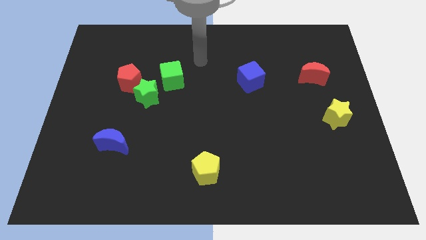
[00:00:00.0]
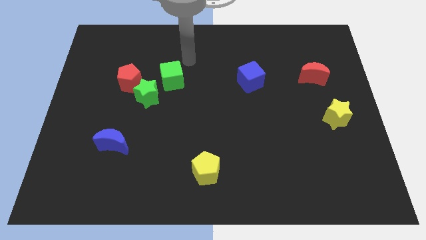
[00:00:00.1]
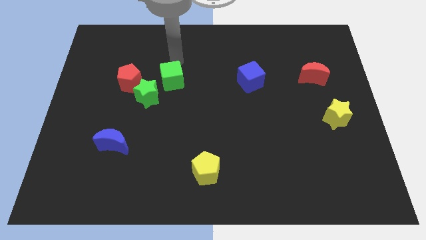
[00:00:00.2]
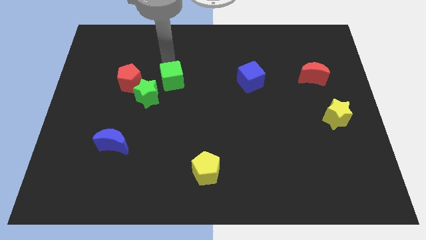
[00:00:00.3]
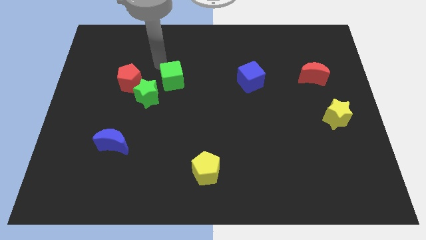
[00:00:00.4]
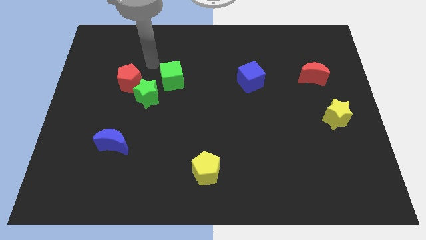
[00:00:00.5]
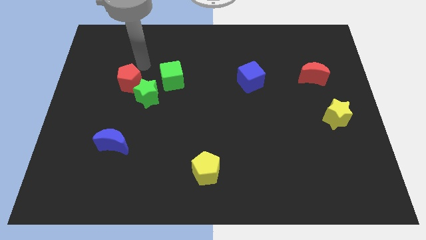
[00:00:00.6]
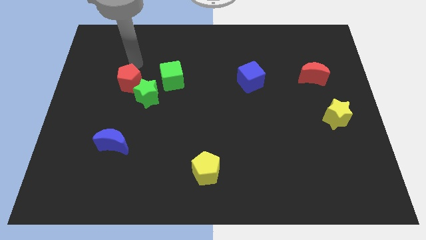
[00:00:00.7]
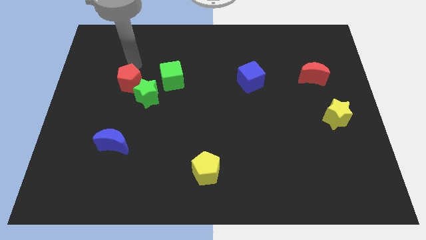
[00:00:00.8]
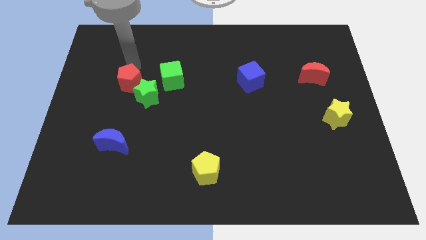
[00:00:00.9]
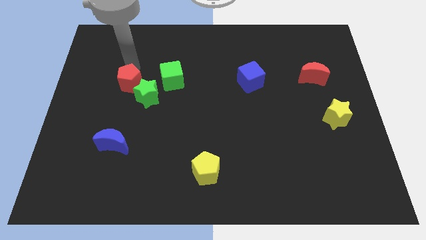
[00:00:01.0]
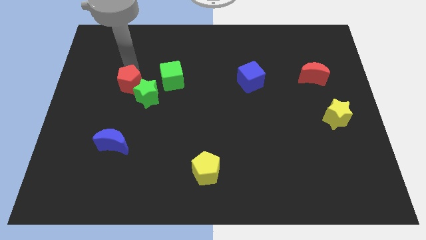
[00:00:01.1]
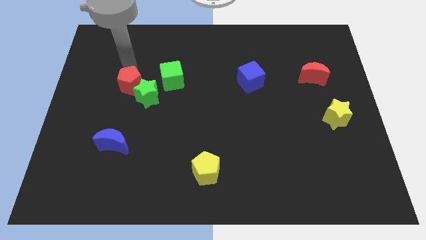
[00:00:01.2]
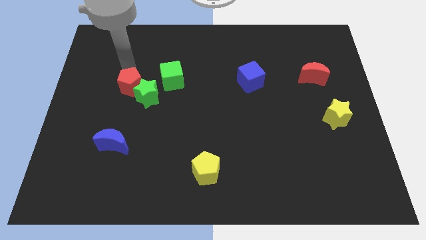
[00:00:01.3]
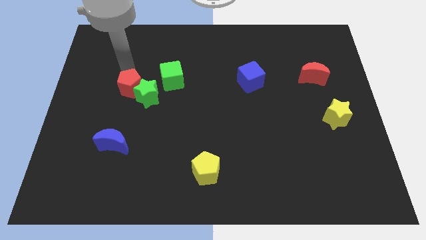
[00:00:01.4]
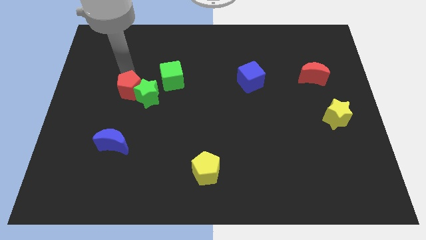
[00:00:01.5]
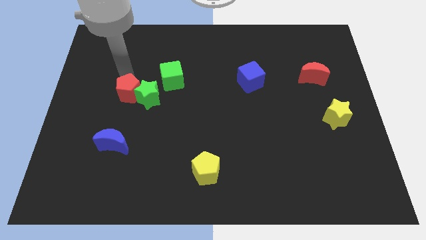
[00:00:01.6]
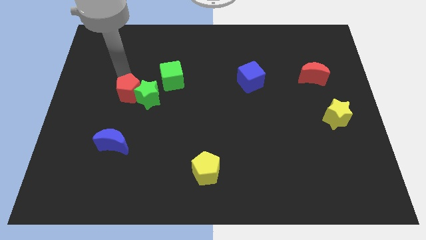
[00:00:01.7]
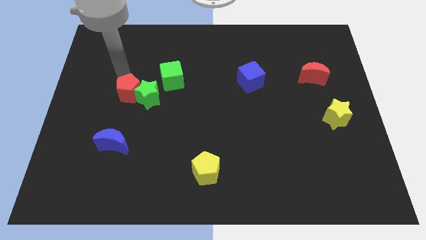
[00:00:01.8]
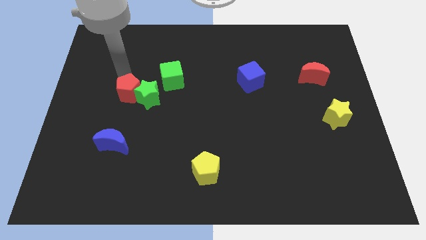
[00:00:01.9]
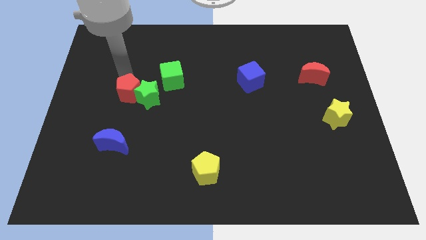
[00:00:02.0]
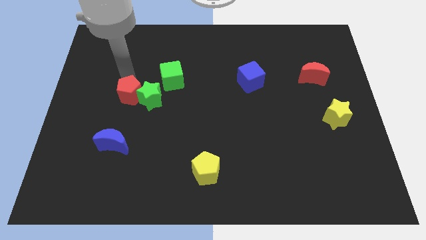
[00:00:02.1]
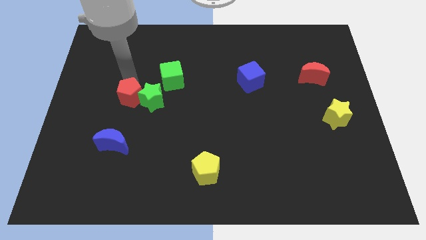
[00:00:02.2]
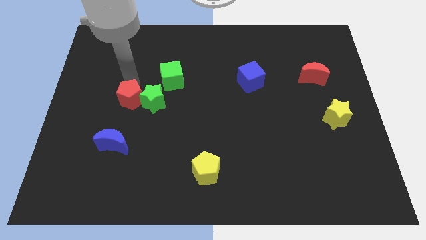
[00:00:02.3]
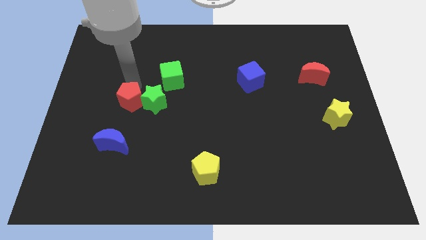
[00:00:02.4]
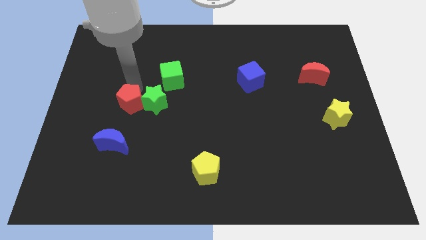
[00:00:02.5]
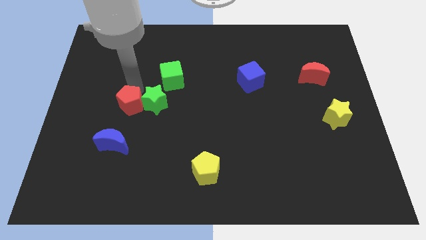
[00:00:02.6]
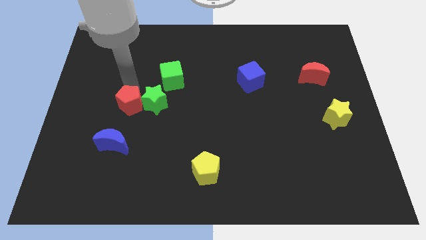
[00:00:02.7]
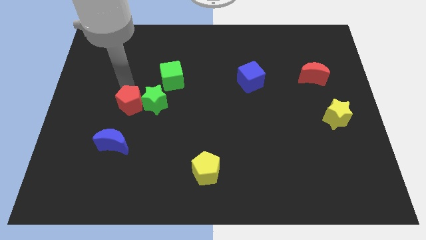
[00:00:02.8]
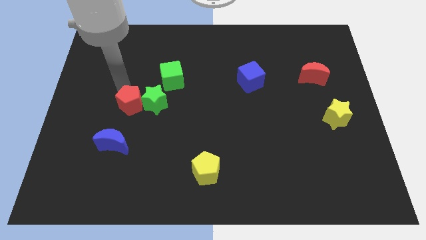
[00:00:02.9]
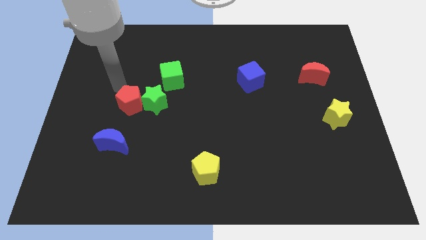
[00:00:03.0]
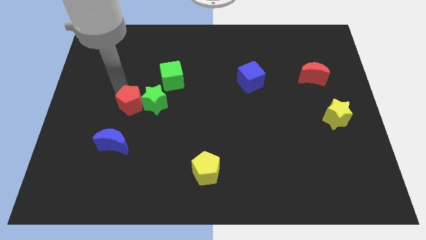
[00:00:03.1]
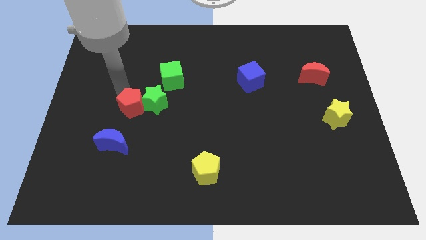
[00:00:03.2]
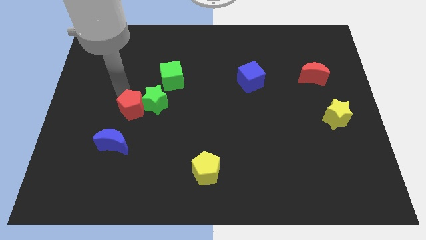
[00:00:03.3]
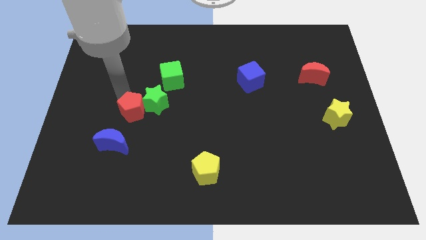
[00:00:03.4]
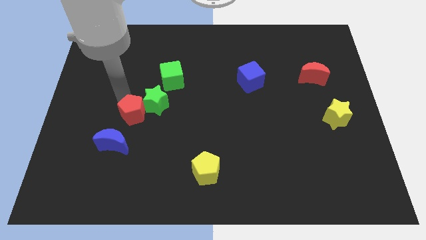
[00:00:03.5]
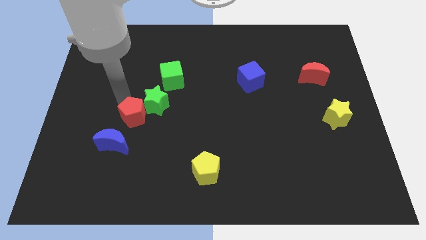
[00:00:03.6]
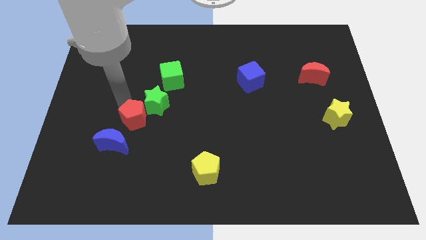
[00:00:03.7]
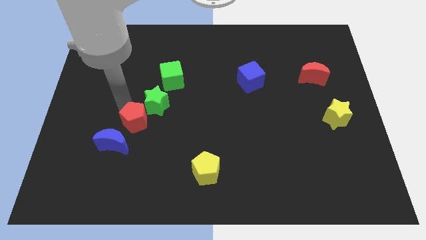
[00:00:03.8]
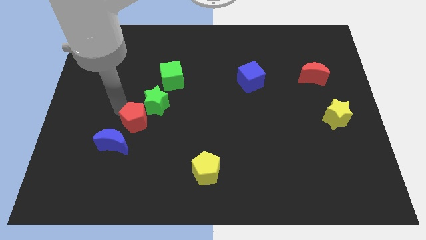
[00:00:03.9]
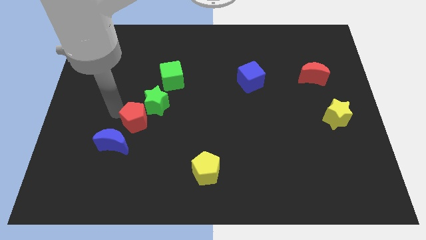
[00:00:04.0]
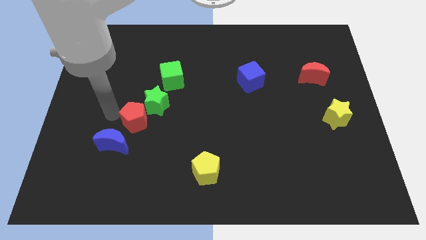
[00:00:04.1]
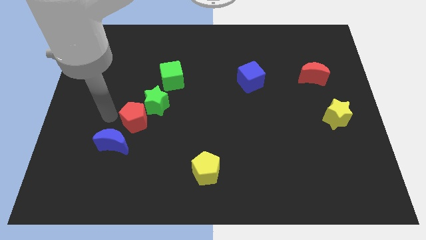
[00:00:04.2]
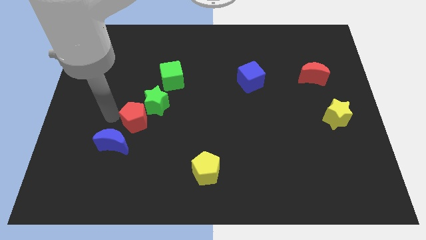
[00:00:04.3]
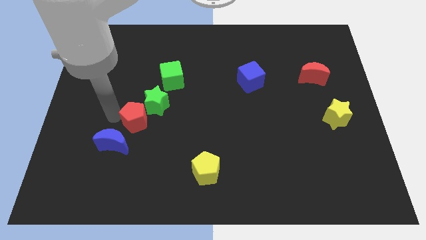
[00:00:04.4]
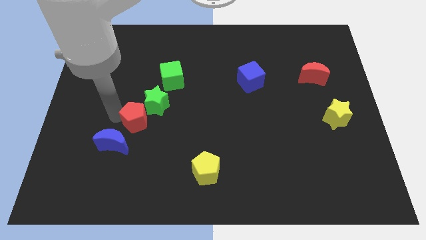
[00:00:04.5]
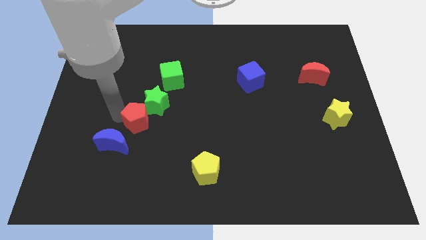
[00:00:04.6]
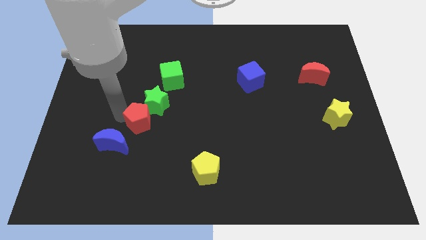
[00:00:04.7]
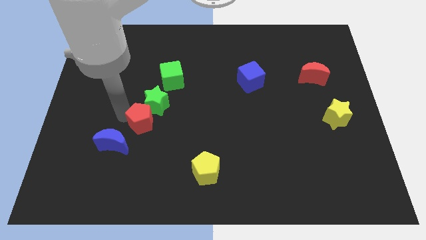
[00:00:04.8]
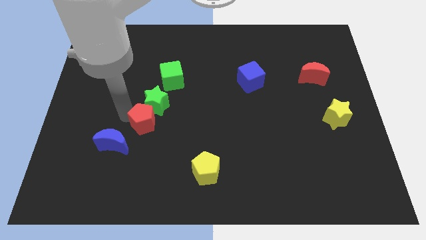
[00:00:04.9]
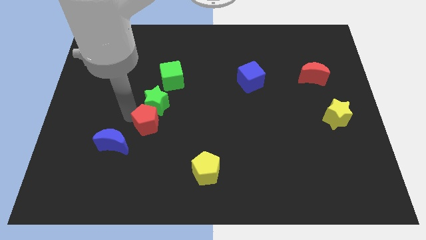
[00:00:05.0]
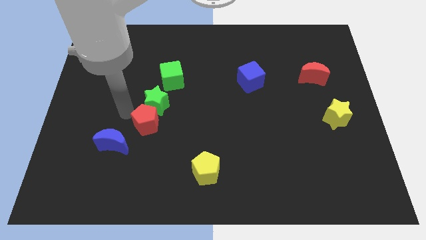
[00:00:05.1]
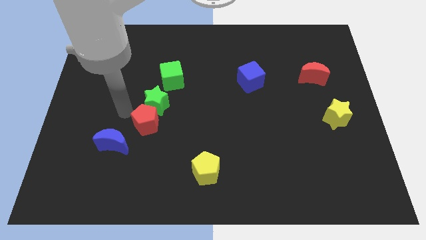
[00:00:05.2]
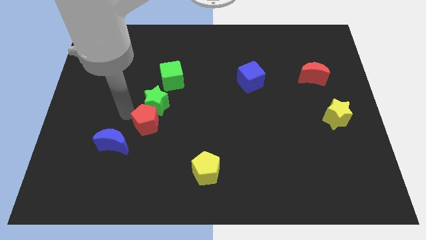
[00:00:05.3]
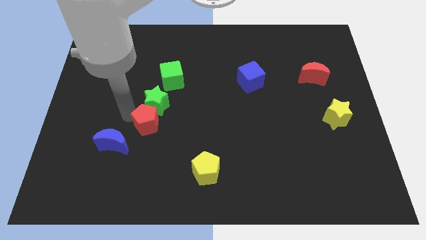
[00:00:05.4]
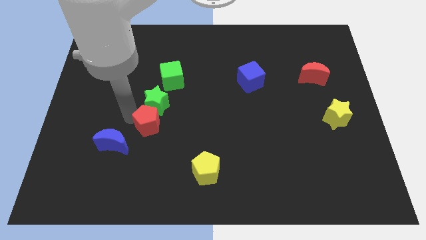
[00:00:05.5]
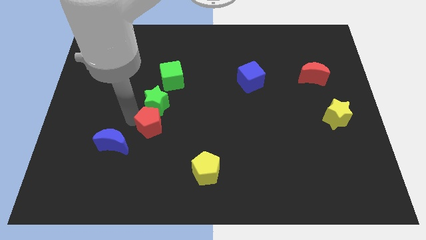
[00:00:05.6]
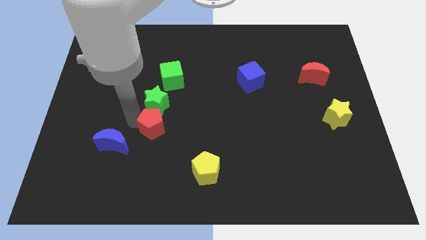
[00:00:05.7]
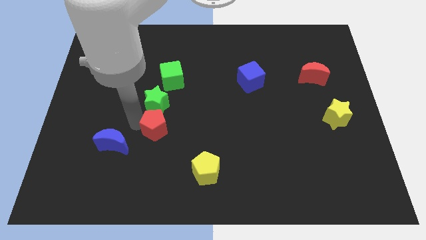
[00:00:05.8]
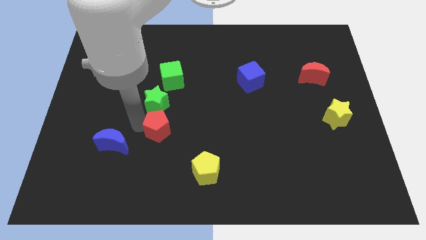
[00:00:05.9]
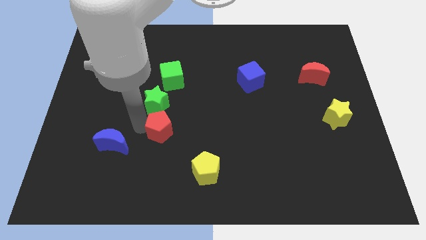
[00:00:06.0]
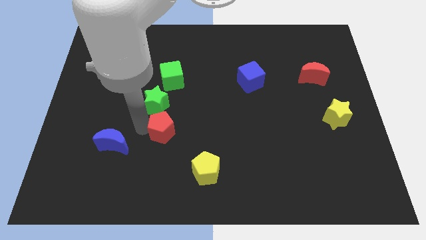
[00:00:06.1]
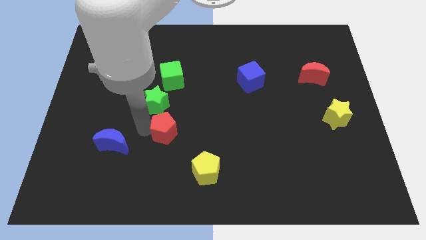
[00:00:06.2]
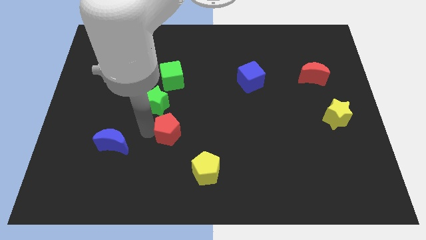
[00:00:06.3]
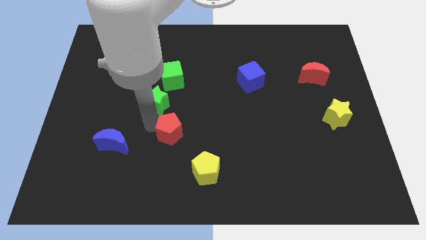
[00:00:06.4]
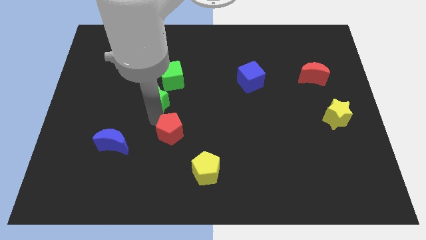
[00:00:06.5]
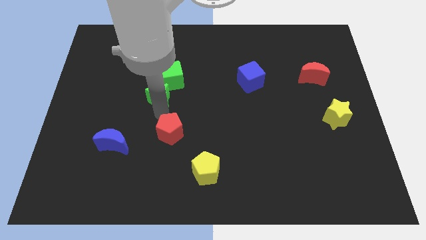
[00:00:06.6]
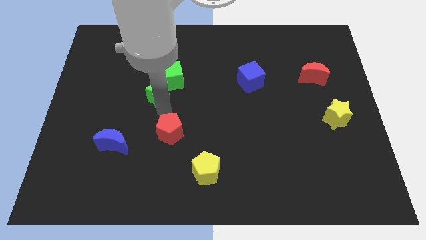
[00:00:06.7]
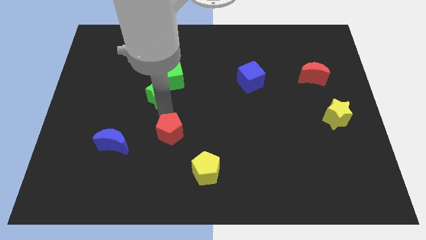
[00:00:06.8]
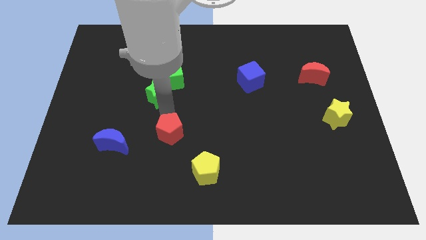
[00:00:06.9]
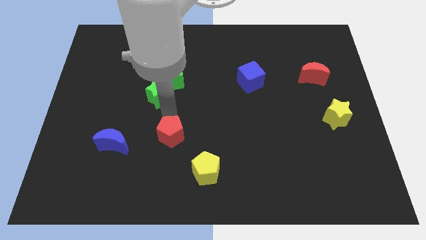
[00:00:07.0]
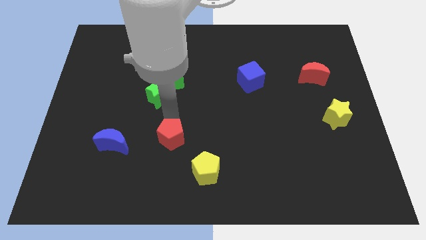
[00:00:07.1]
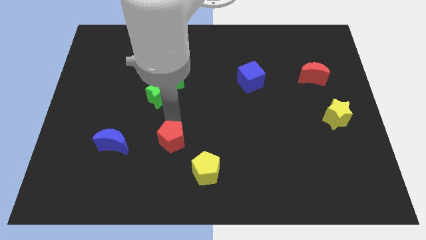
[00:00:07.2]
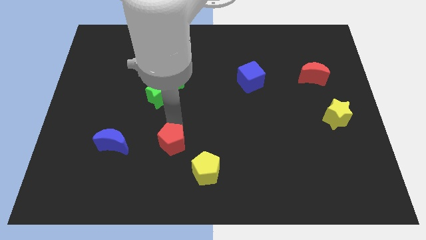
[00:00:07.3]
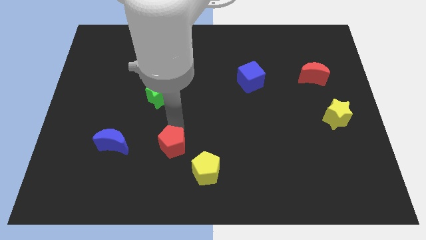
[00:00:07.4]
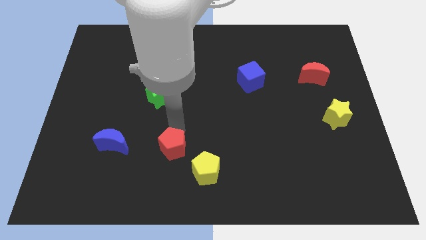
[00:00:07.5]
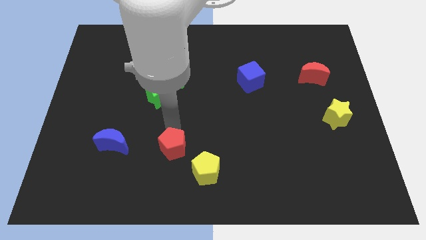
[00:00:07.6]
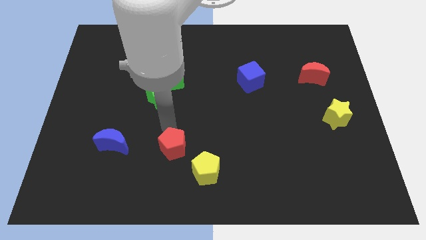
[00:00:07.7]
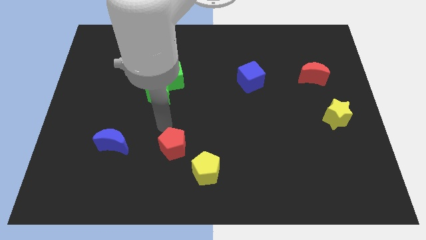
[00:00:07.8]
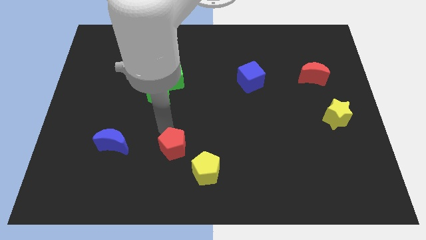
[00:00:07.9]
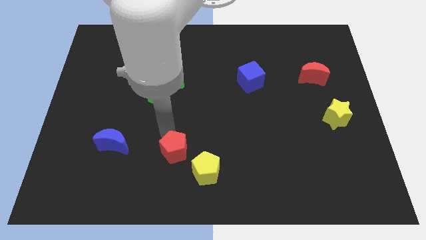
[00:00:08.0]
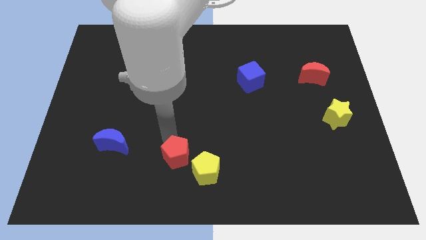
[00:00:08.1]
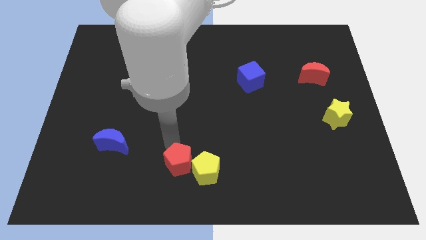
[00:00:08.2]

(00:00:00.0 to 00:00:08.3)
put the red pentagon to the bottom
